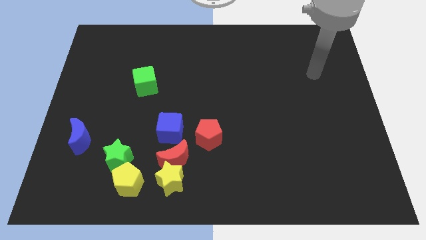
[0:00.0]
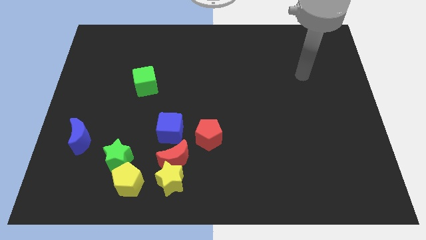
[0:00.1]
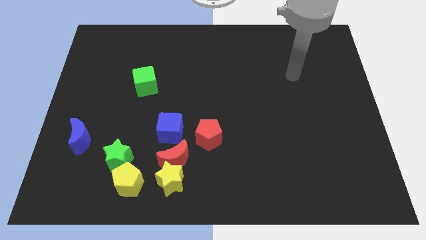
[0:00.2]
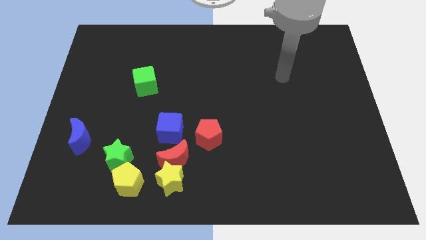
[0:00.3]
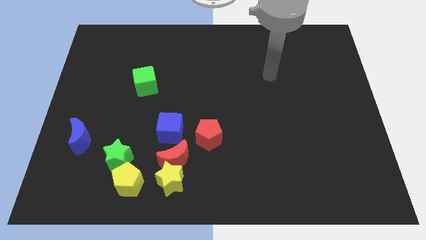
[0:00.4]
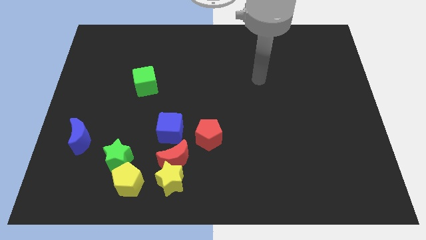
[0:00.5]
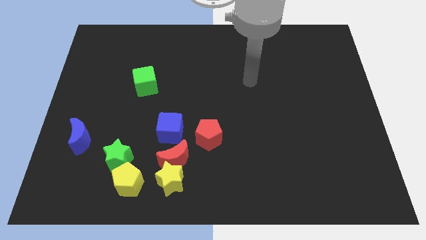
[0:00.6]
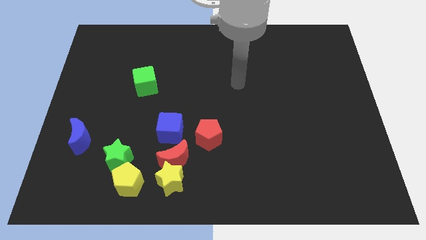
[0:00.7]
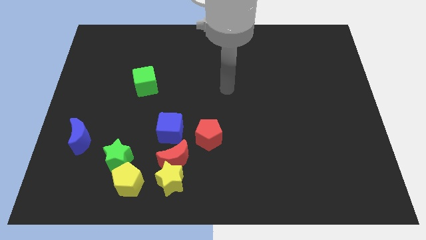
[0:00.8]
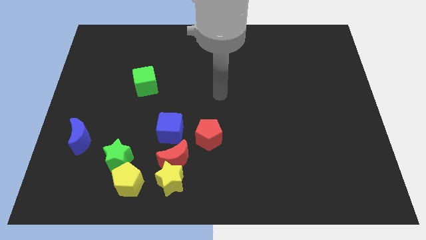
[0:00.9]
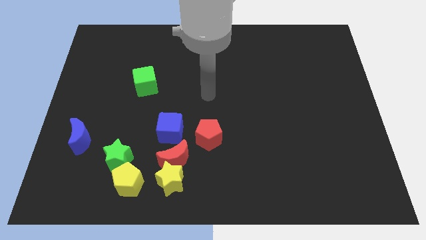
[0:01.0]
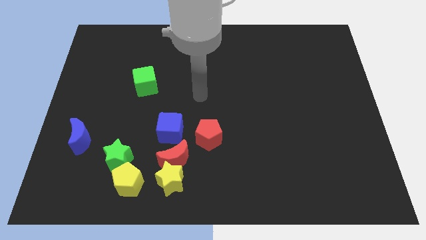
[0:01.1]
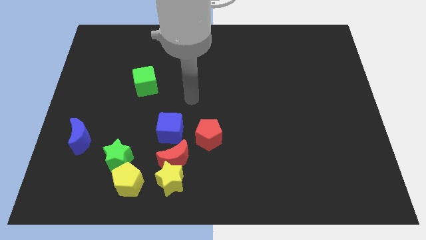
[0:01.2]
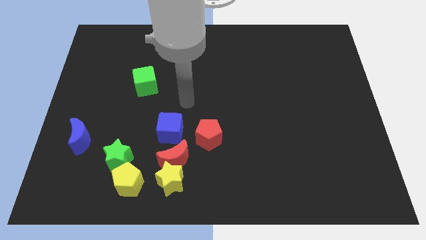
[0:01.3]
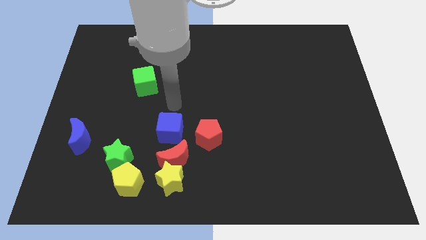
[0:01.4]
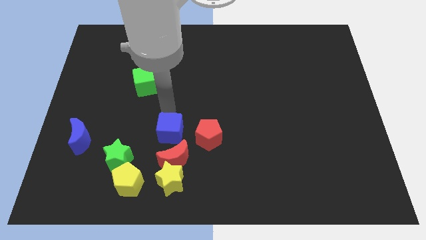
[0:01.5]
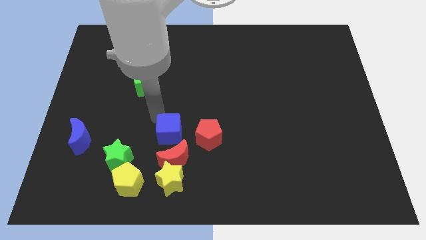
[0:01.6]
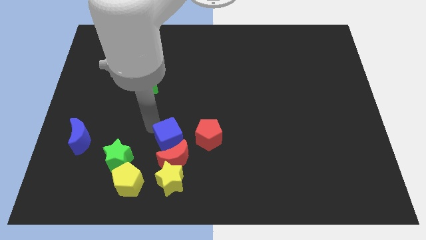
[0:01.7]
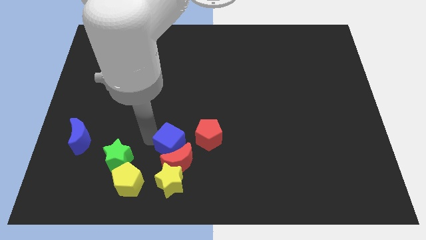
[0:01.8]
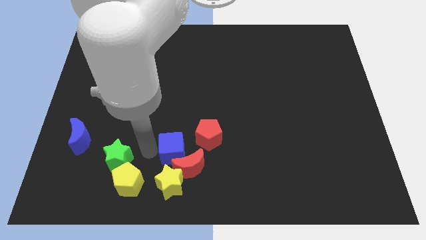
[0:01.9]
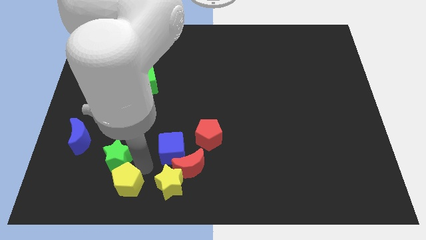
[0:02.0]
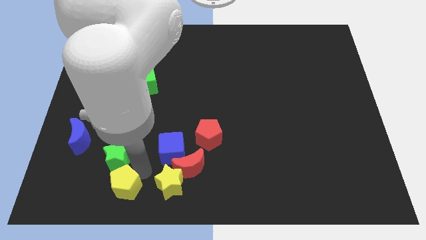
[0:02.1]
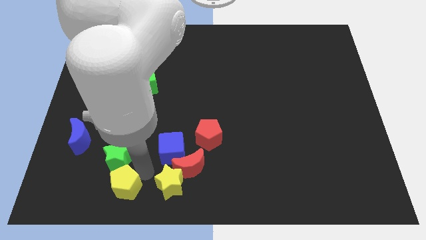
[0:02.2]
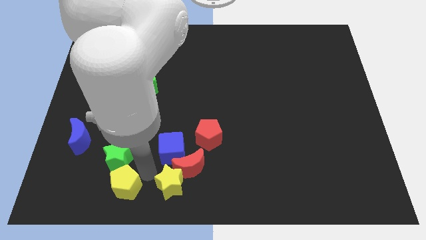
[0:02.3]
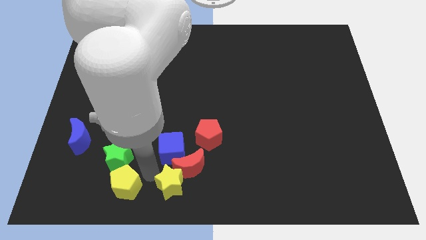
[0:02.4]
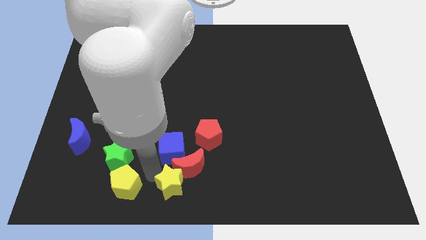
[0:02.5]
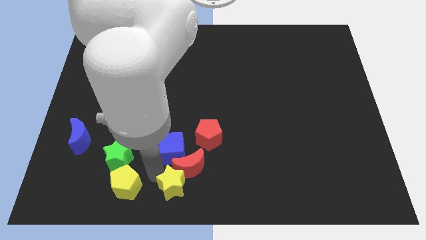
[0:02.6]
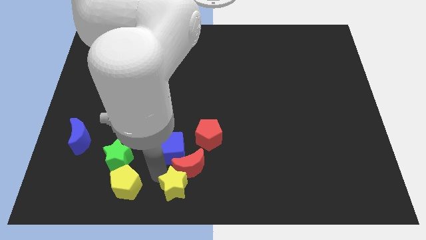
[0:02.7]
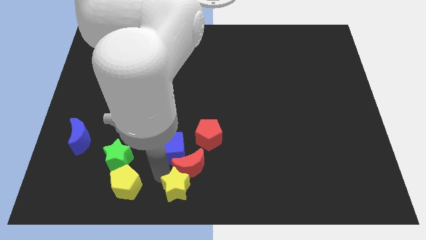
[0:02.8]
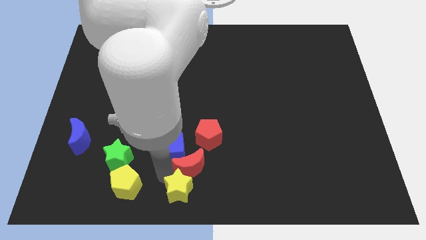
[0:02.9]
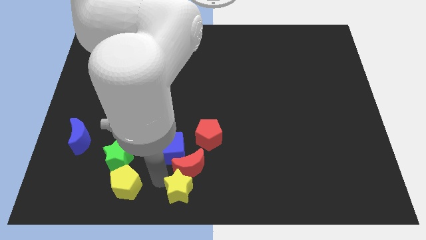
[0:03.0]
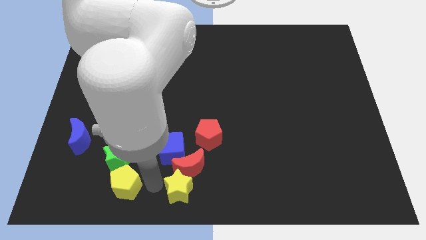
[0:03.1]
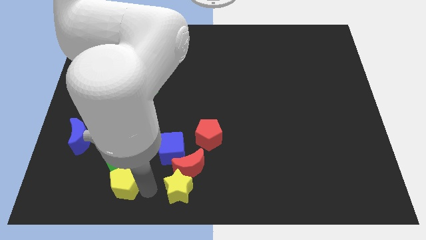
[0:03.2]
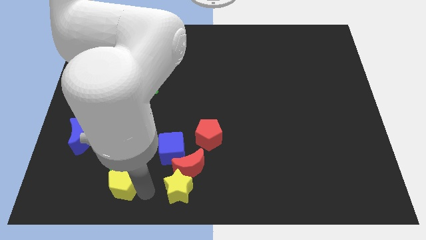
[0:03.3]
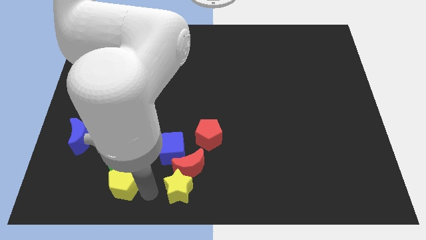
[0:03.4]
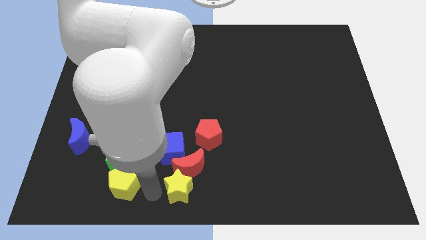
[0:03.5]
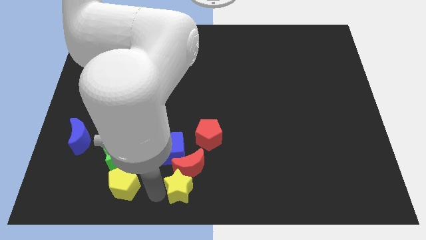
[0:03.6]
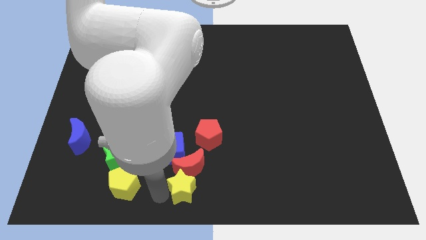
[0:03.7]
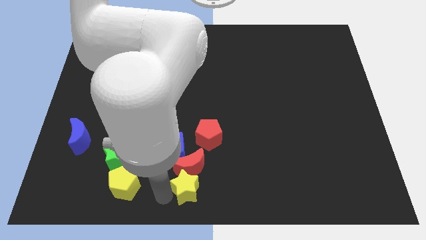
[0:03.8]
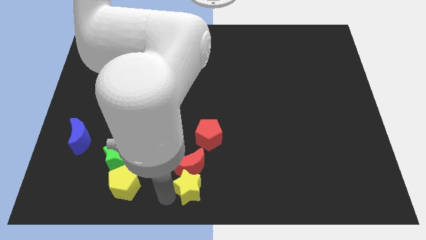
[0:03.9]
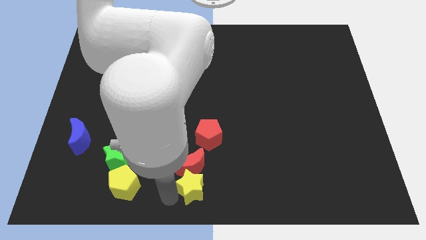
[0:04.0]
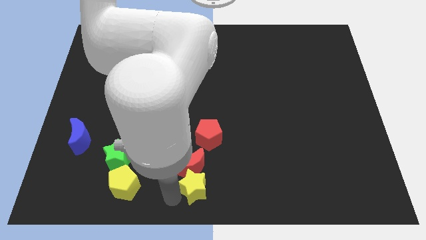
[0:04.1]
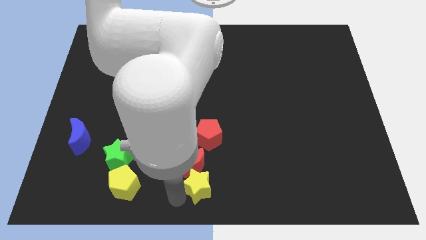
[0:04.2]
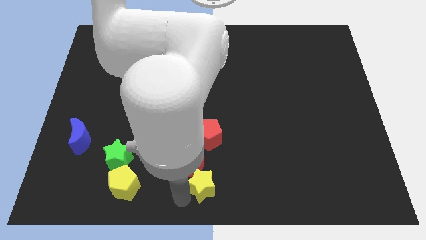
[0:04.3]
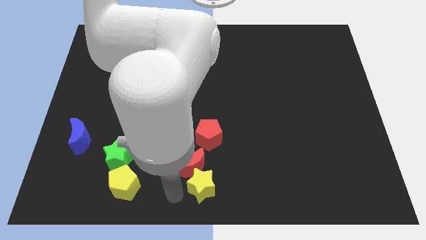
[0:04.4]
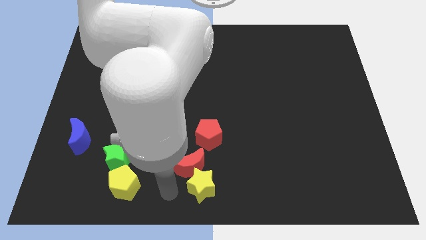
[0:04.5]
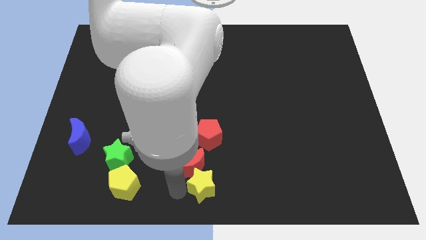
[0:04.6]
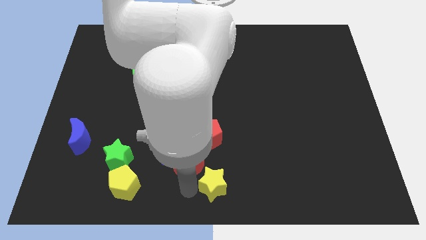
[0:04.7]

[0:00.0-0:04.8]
move the yellow star a little right

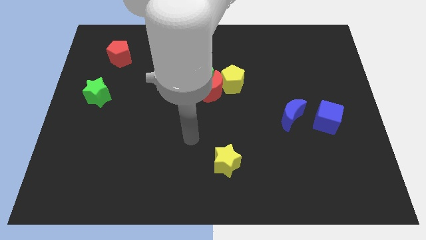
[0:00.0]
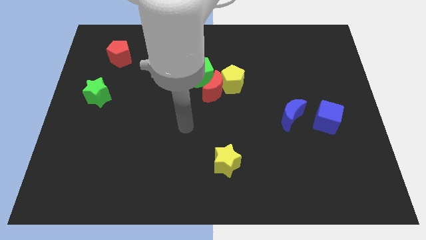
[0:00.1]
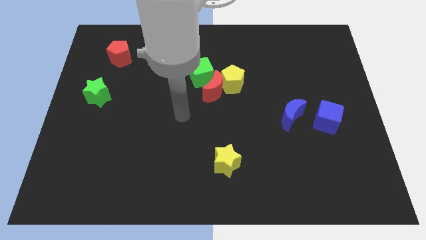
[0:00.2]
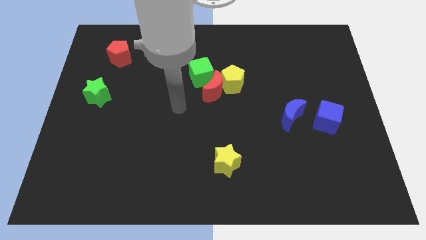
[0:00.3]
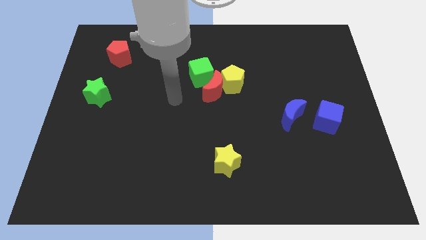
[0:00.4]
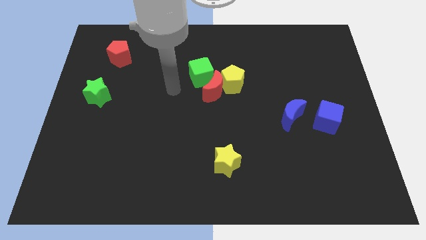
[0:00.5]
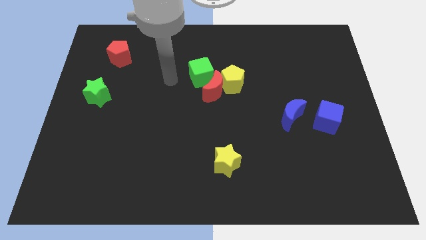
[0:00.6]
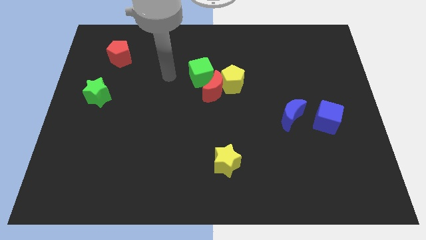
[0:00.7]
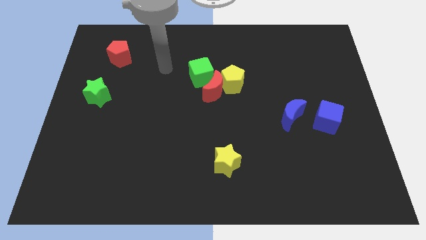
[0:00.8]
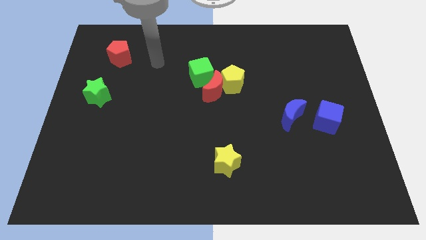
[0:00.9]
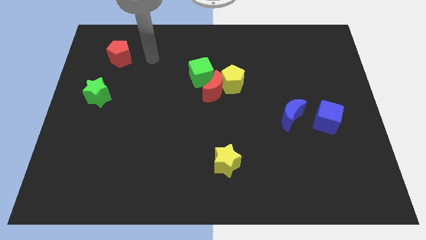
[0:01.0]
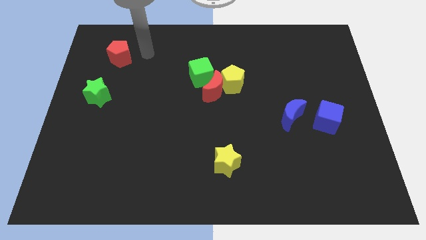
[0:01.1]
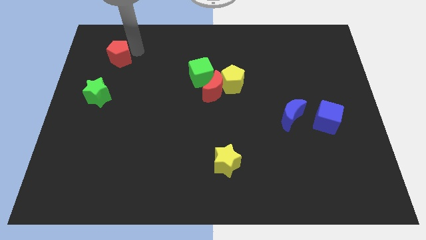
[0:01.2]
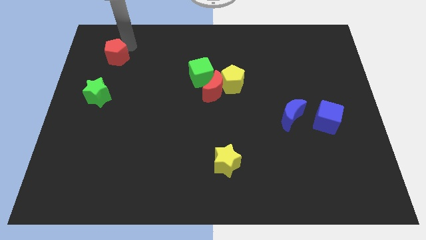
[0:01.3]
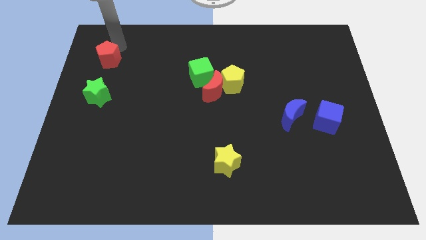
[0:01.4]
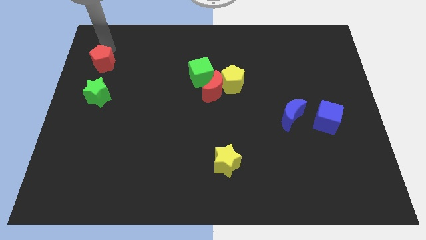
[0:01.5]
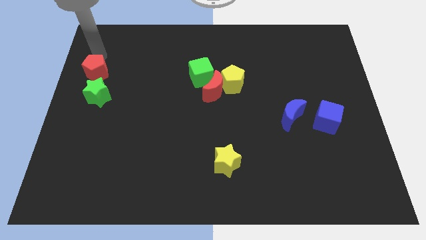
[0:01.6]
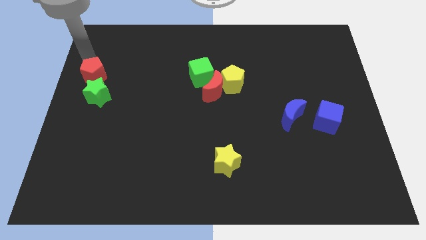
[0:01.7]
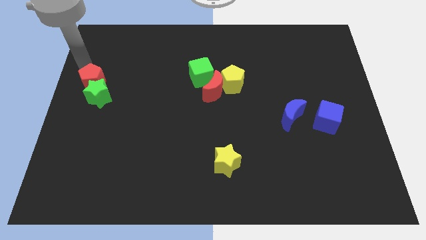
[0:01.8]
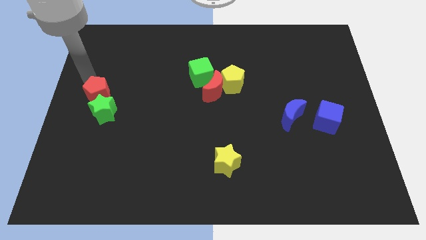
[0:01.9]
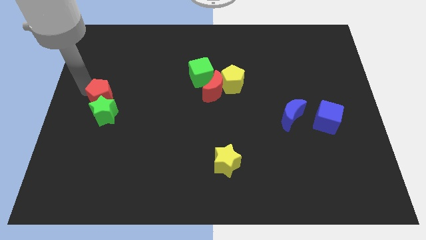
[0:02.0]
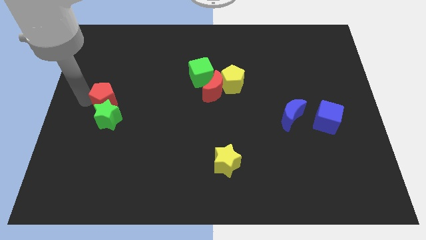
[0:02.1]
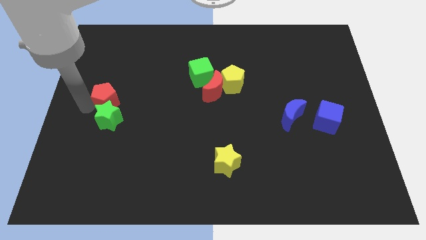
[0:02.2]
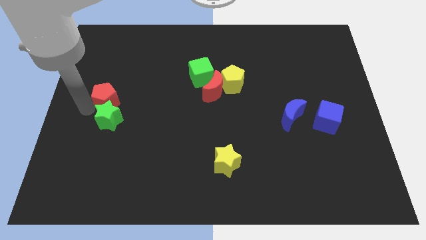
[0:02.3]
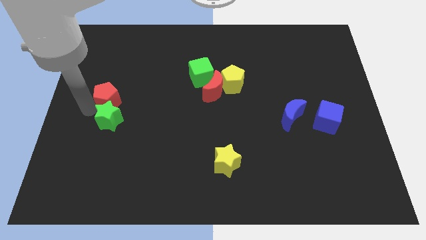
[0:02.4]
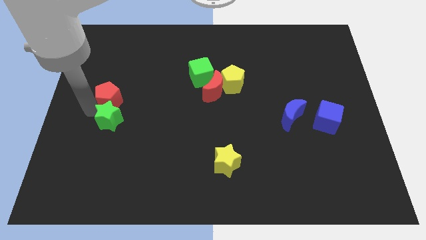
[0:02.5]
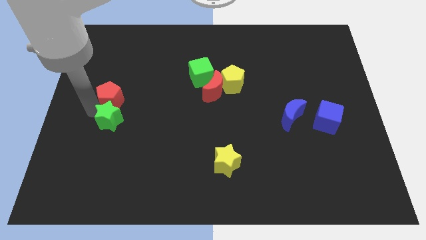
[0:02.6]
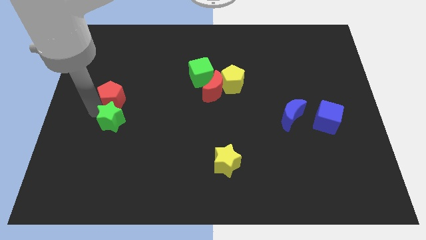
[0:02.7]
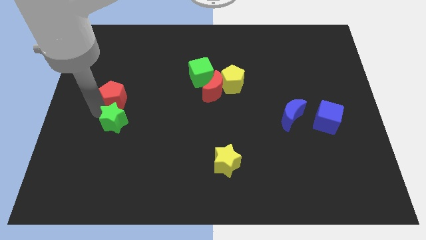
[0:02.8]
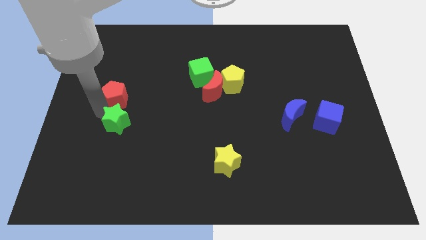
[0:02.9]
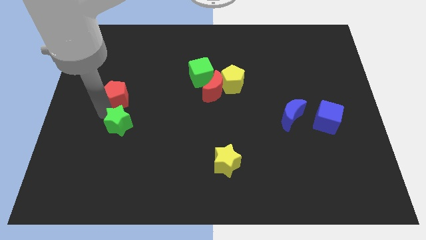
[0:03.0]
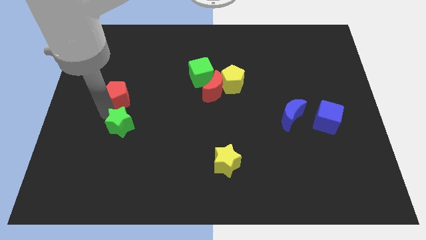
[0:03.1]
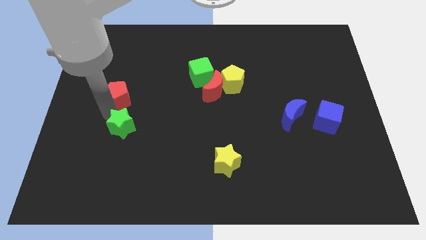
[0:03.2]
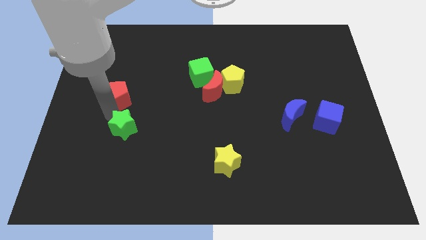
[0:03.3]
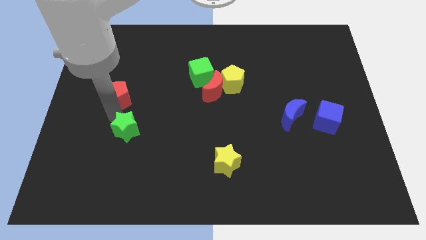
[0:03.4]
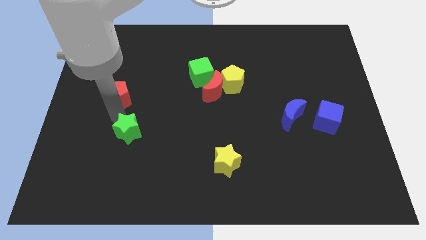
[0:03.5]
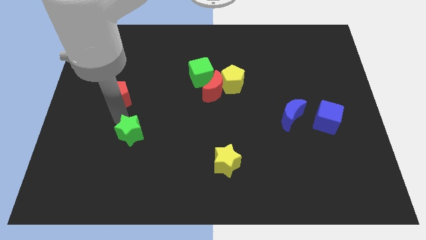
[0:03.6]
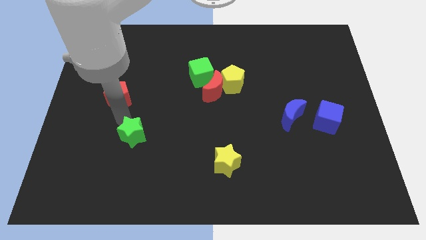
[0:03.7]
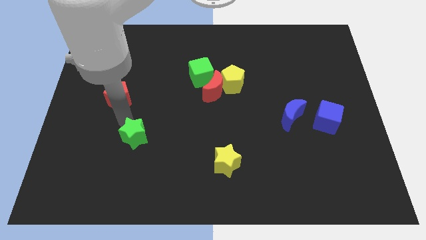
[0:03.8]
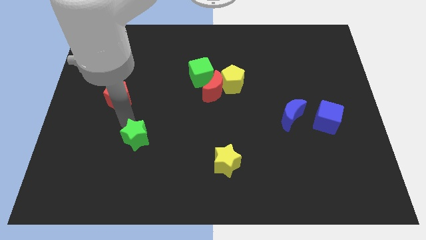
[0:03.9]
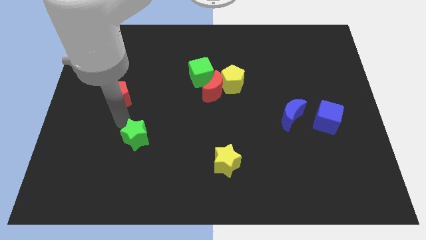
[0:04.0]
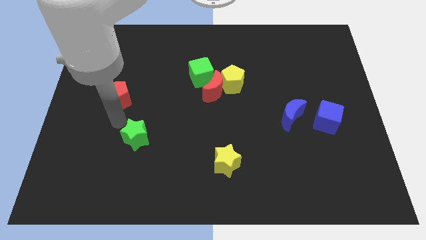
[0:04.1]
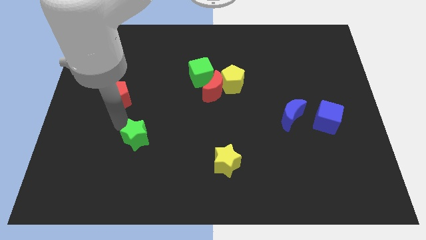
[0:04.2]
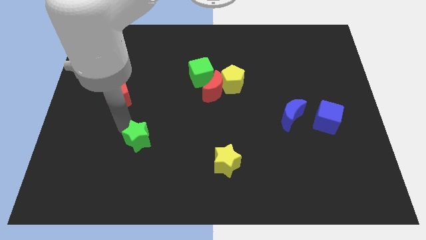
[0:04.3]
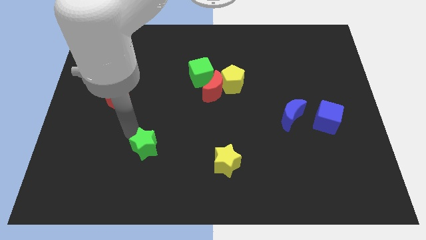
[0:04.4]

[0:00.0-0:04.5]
push the green star diagonally down and to the right
